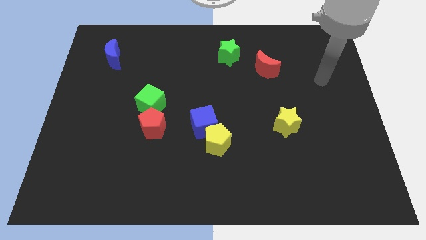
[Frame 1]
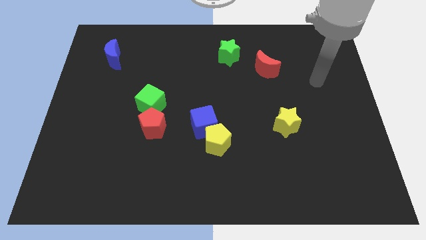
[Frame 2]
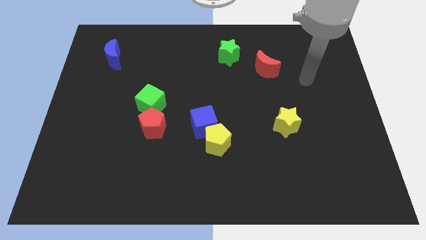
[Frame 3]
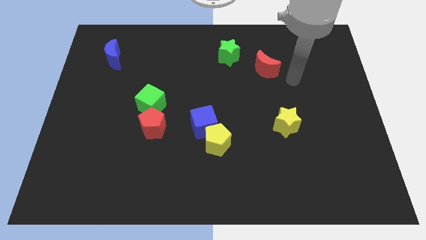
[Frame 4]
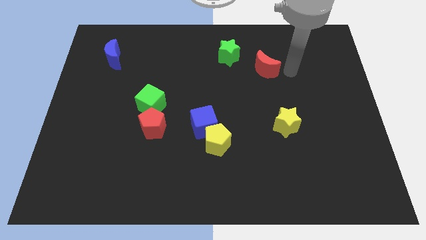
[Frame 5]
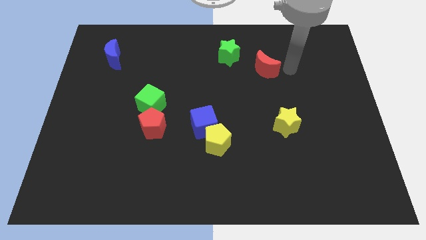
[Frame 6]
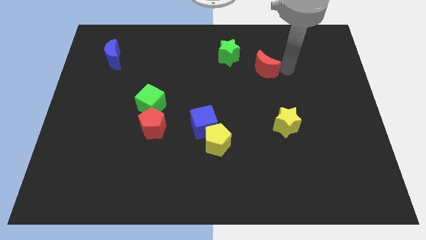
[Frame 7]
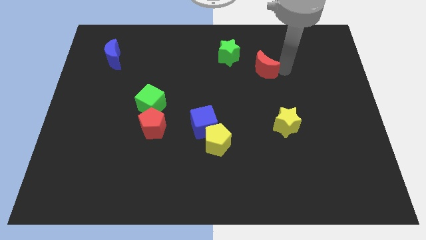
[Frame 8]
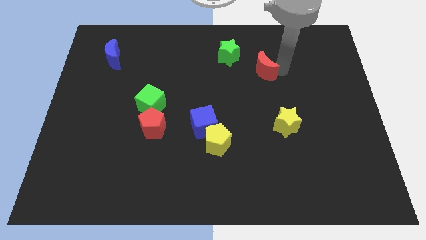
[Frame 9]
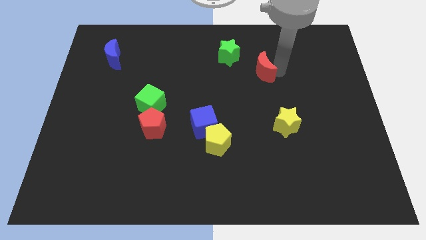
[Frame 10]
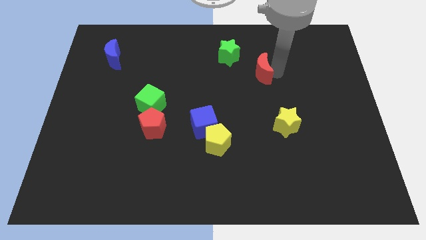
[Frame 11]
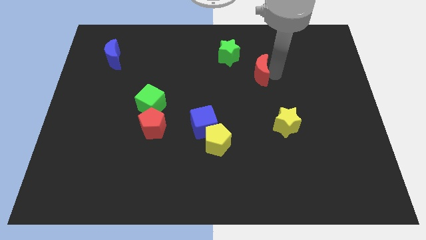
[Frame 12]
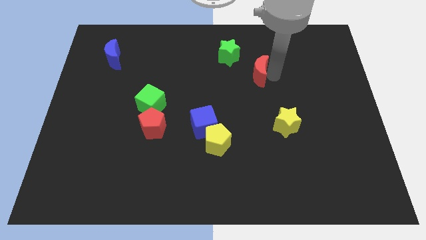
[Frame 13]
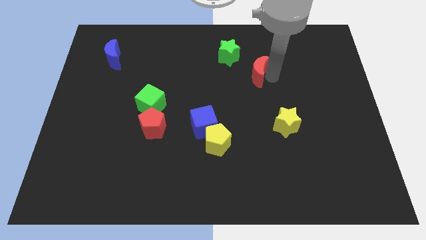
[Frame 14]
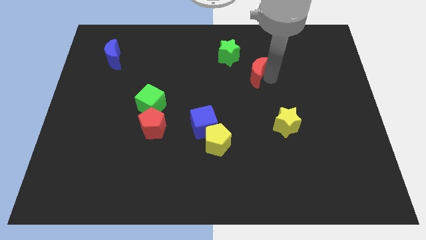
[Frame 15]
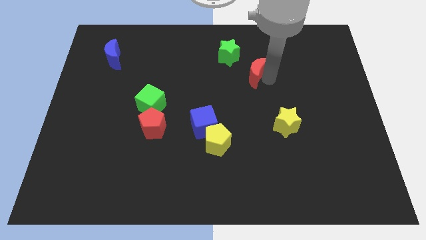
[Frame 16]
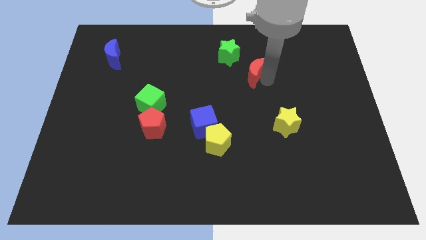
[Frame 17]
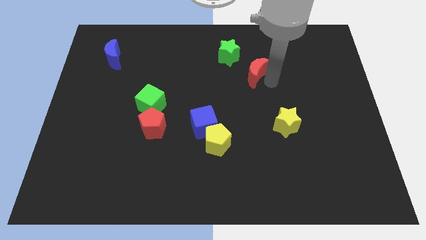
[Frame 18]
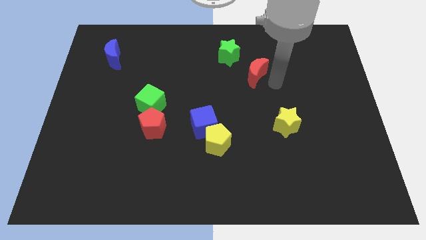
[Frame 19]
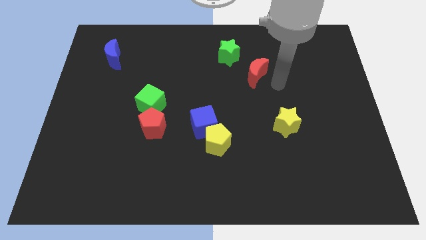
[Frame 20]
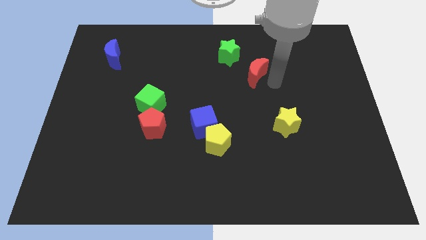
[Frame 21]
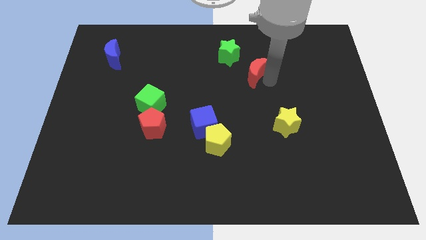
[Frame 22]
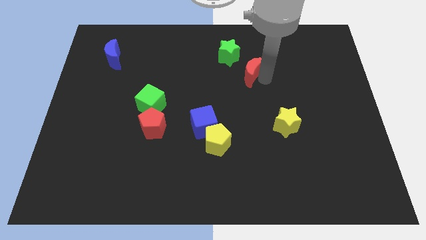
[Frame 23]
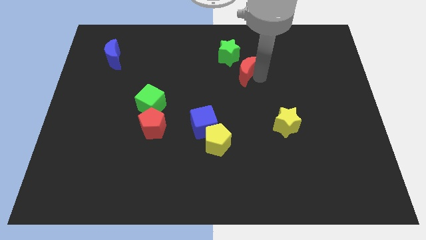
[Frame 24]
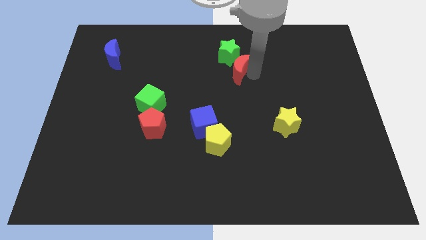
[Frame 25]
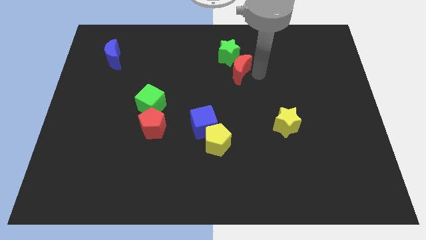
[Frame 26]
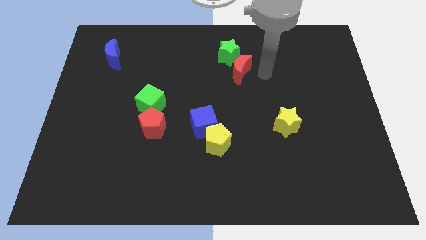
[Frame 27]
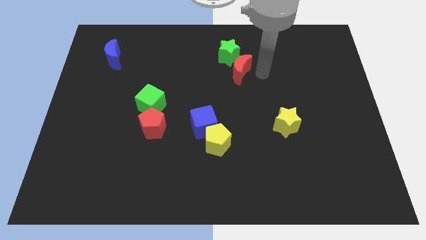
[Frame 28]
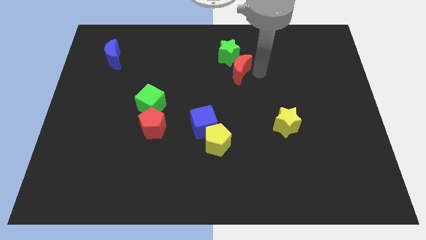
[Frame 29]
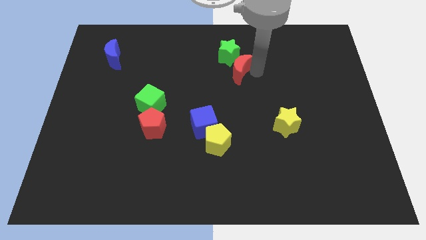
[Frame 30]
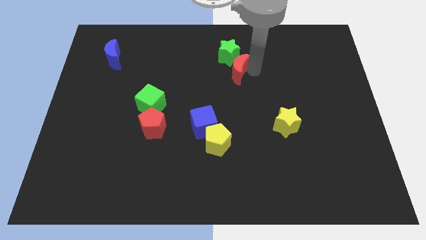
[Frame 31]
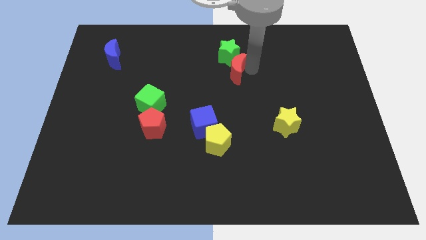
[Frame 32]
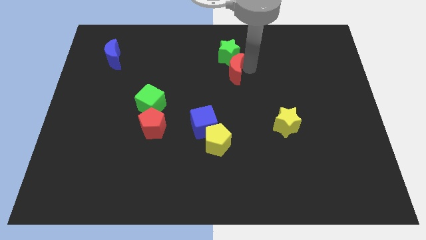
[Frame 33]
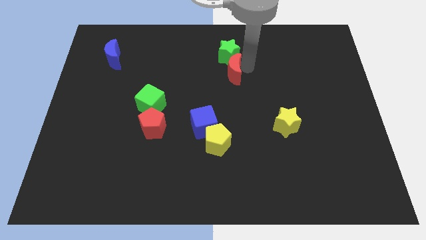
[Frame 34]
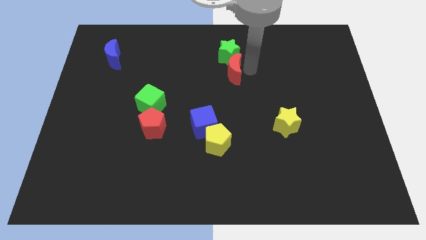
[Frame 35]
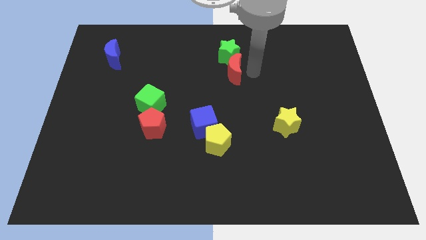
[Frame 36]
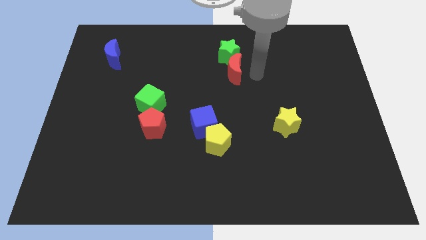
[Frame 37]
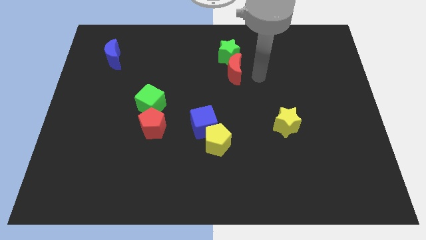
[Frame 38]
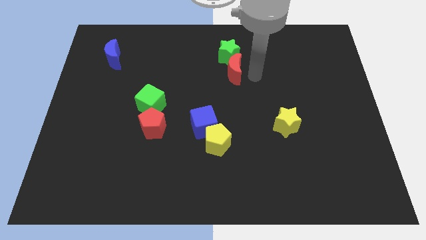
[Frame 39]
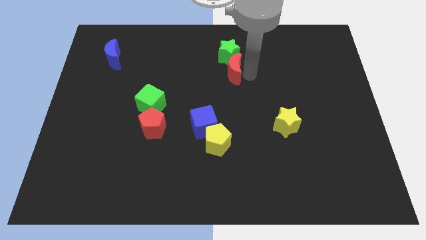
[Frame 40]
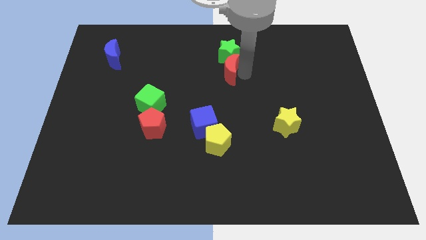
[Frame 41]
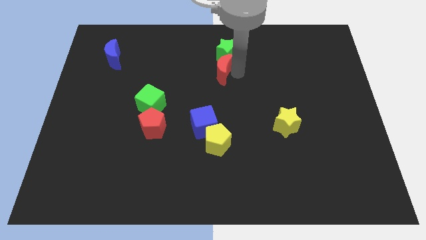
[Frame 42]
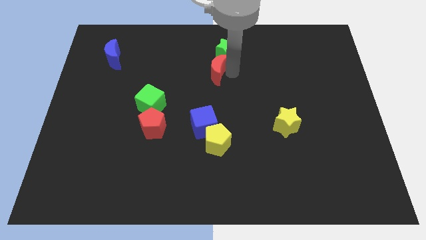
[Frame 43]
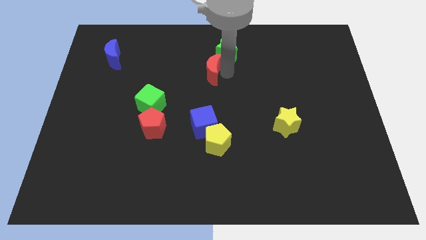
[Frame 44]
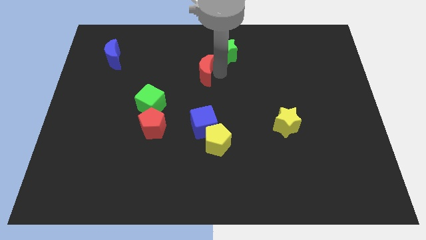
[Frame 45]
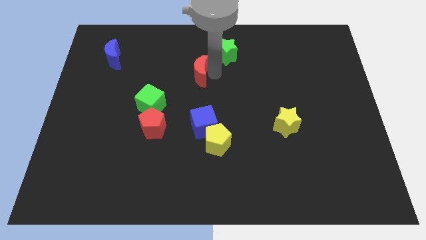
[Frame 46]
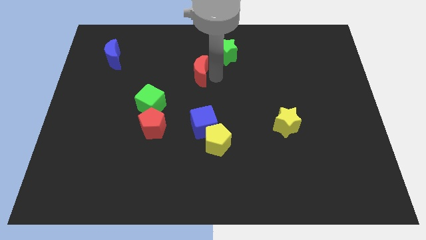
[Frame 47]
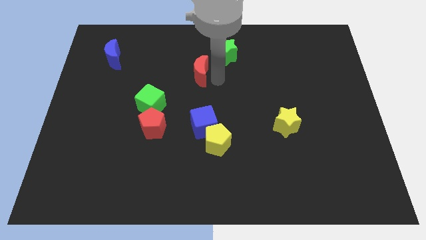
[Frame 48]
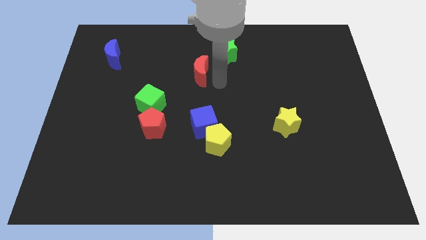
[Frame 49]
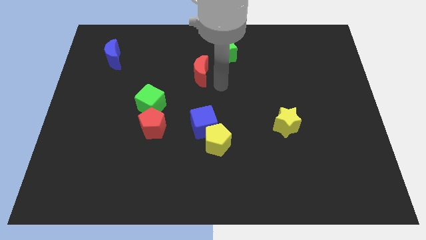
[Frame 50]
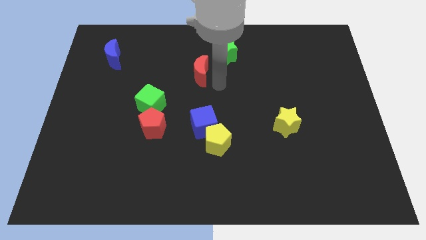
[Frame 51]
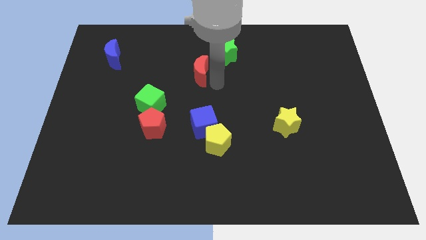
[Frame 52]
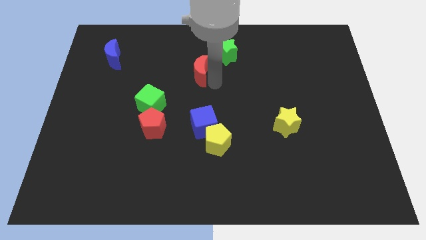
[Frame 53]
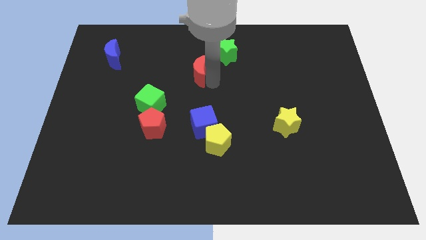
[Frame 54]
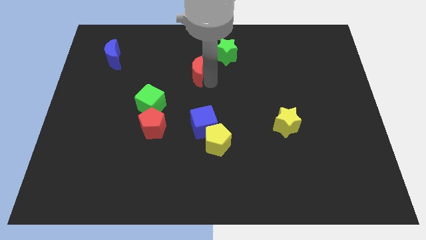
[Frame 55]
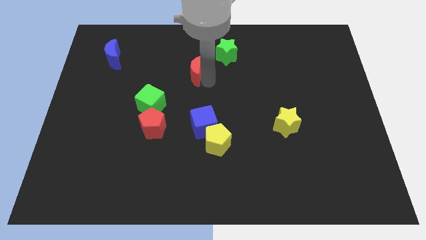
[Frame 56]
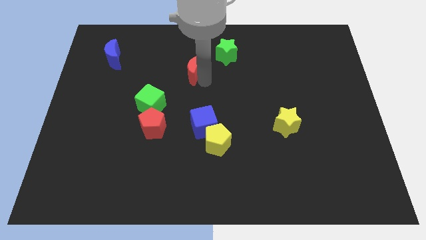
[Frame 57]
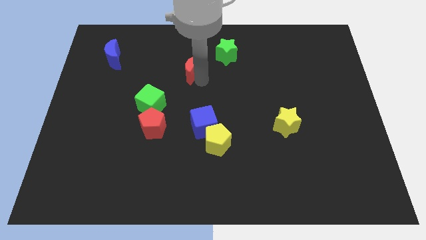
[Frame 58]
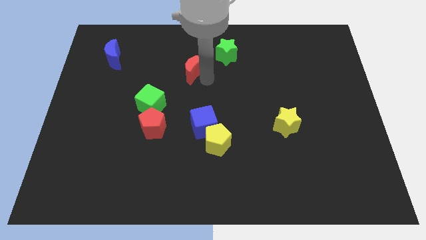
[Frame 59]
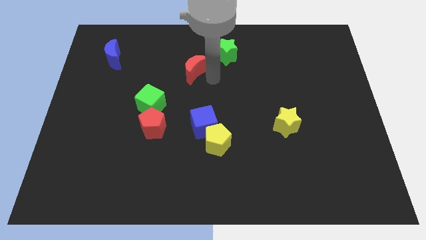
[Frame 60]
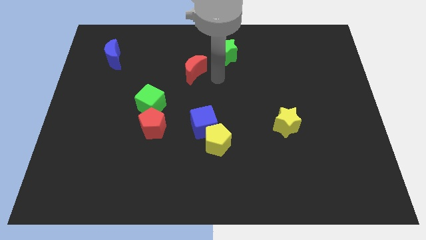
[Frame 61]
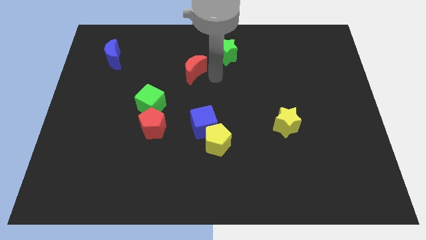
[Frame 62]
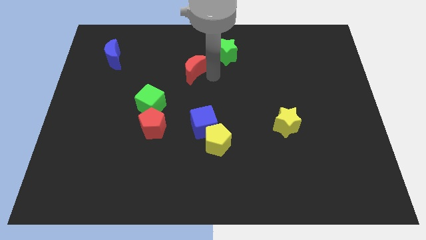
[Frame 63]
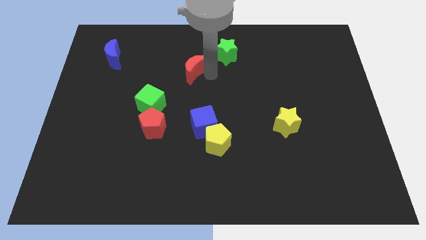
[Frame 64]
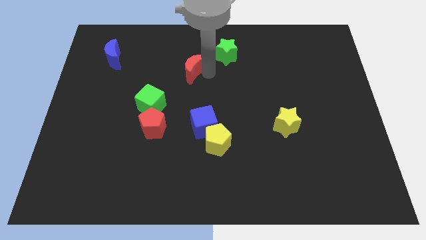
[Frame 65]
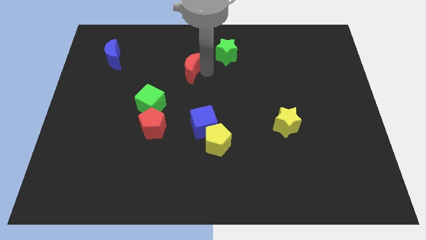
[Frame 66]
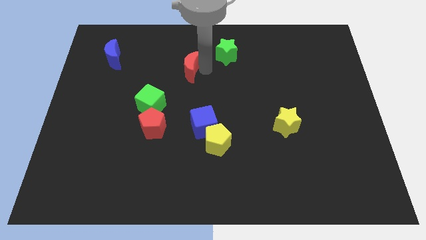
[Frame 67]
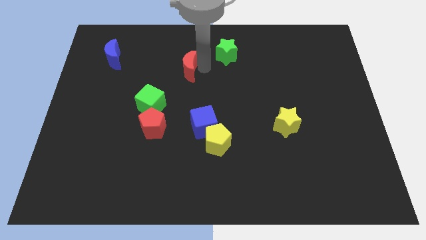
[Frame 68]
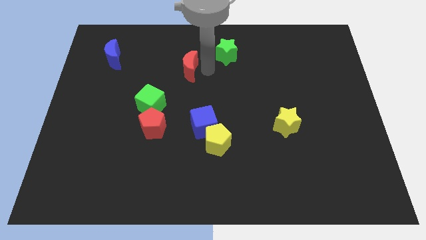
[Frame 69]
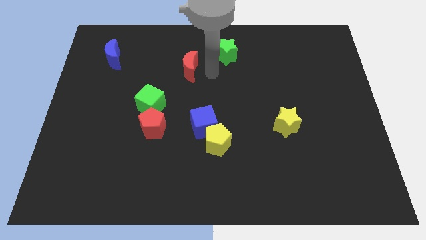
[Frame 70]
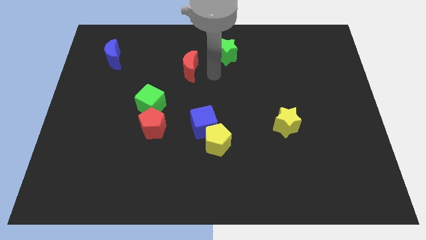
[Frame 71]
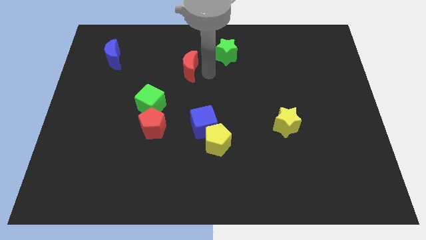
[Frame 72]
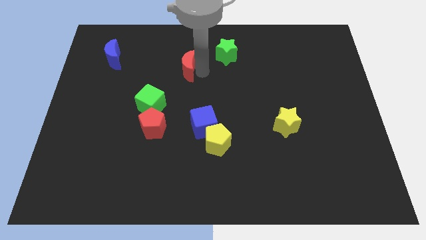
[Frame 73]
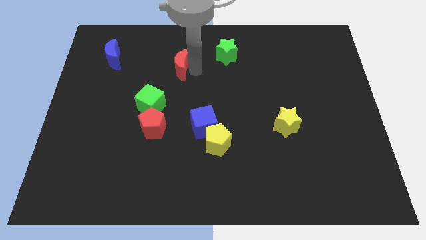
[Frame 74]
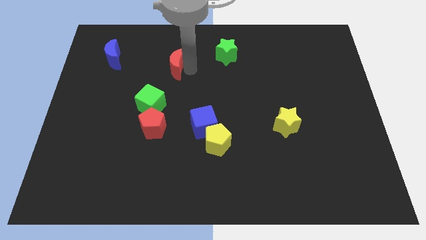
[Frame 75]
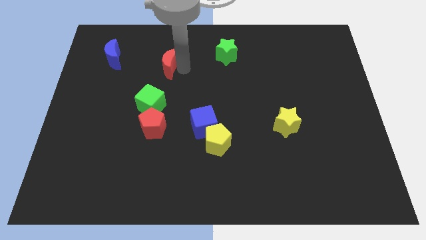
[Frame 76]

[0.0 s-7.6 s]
move the red moon to the right of the blue moon
